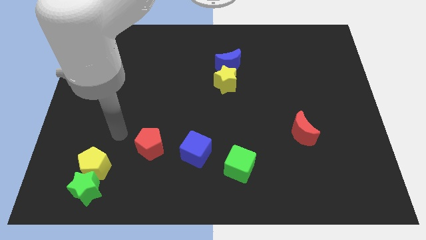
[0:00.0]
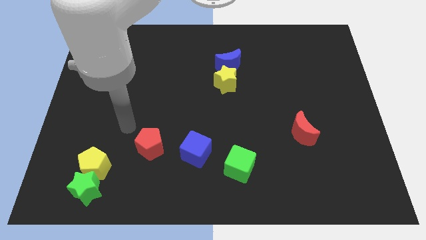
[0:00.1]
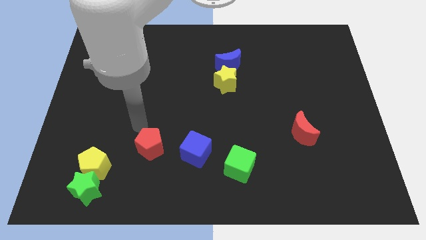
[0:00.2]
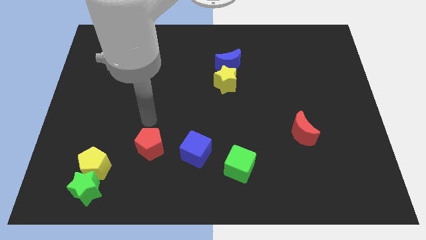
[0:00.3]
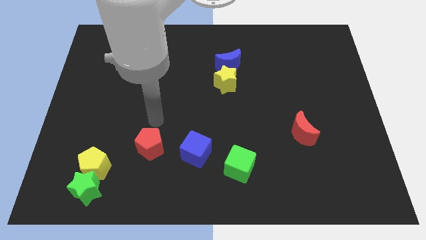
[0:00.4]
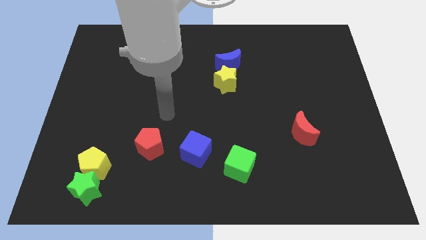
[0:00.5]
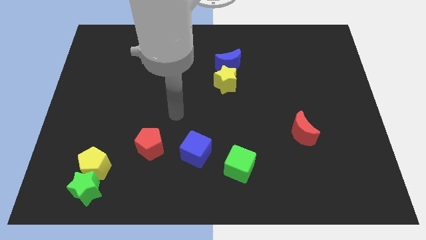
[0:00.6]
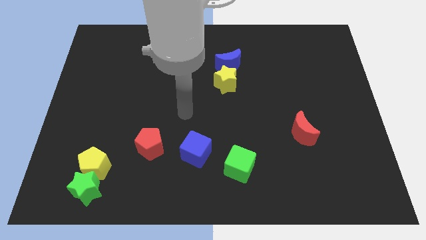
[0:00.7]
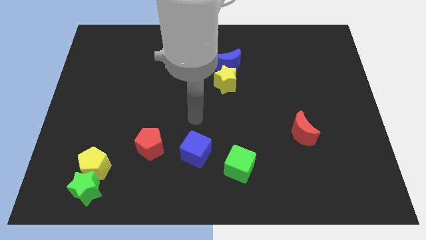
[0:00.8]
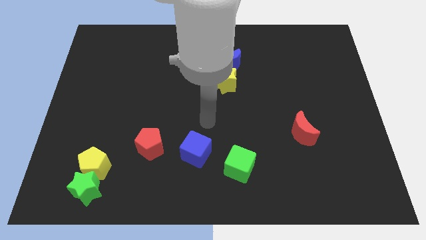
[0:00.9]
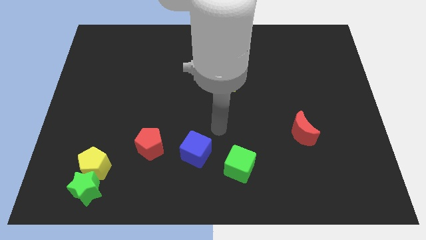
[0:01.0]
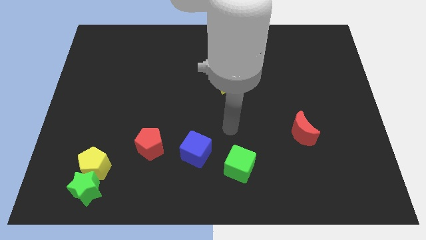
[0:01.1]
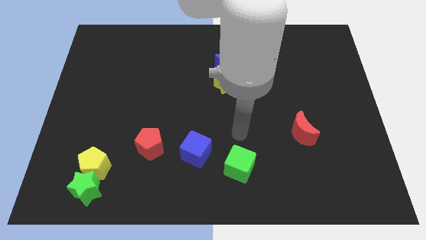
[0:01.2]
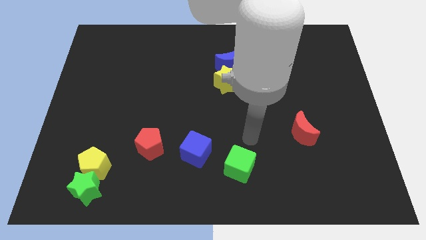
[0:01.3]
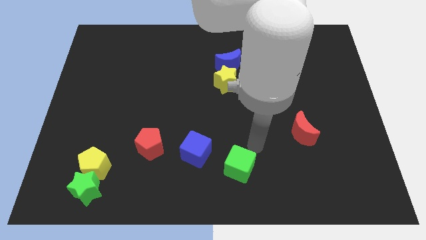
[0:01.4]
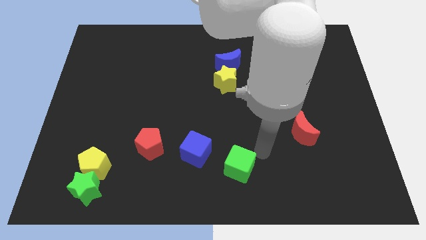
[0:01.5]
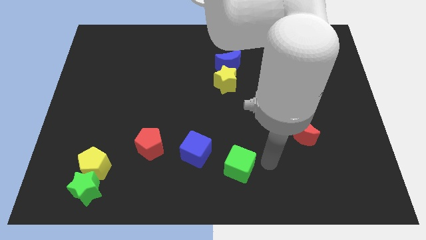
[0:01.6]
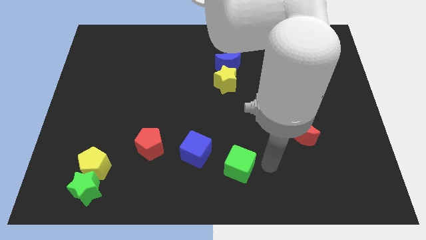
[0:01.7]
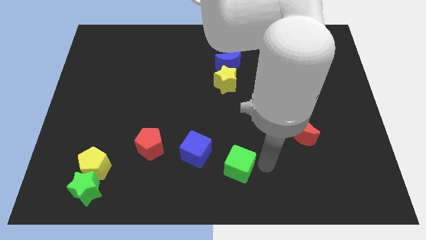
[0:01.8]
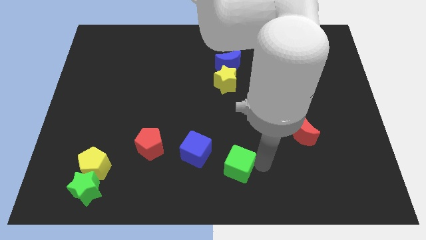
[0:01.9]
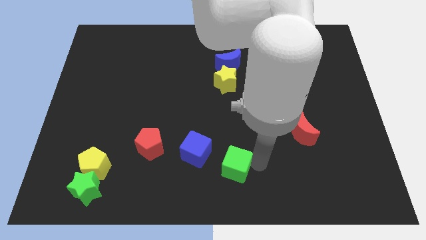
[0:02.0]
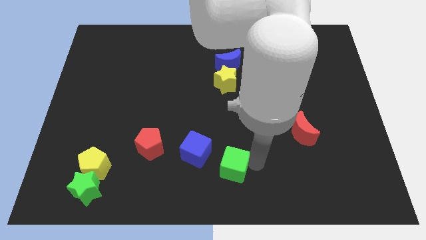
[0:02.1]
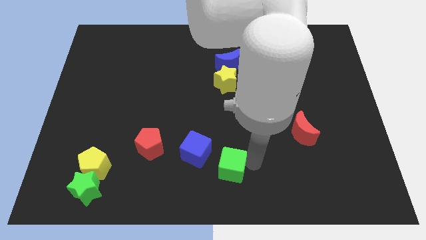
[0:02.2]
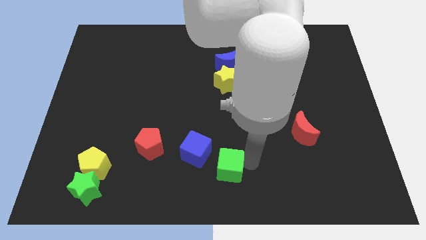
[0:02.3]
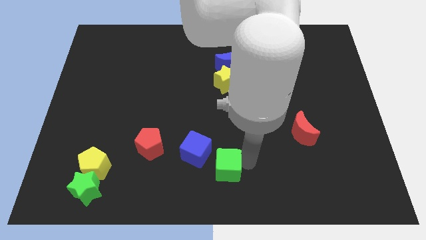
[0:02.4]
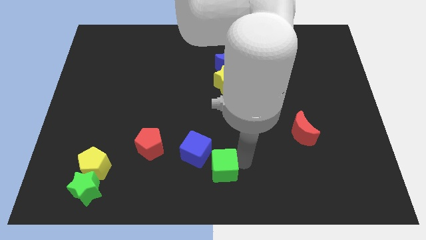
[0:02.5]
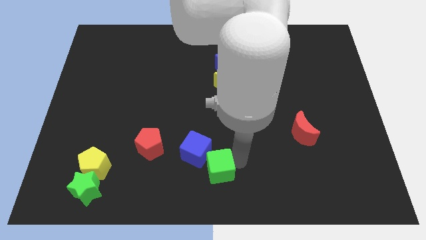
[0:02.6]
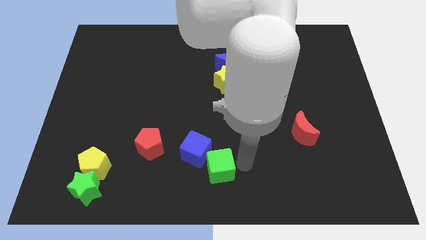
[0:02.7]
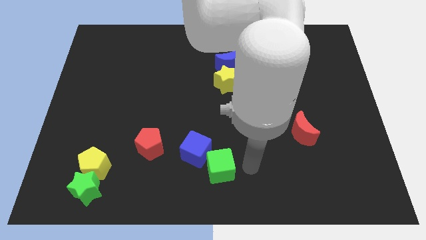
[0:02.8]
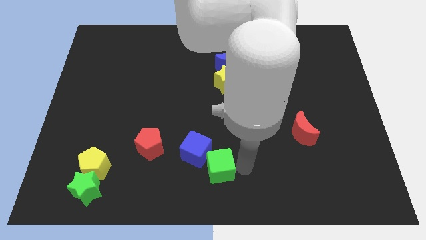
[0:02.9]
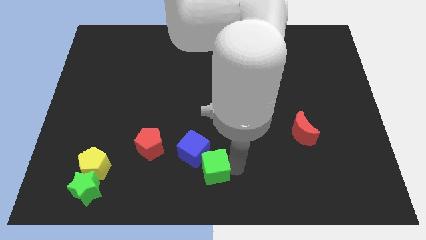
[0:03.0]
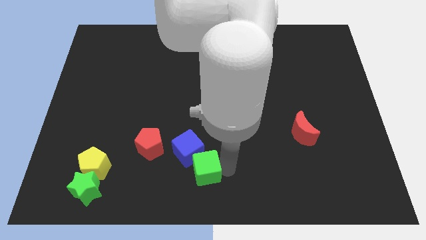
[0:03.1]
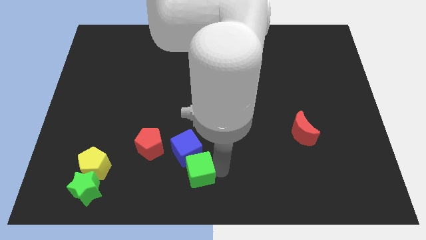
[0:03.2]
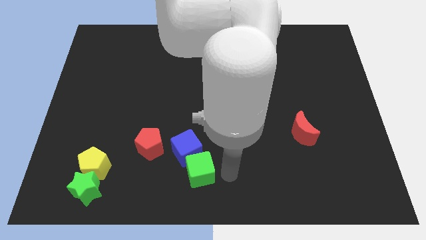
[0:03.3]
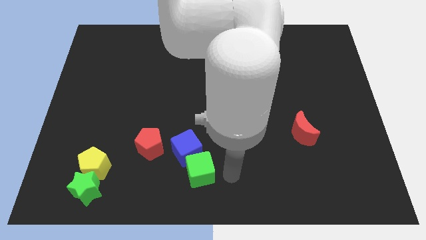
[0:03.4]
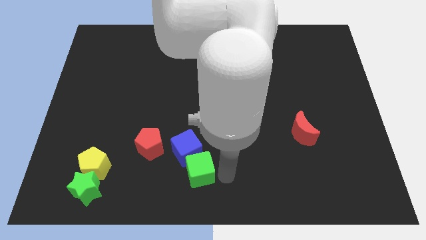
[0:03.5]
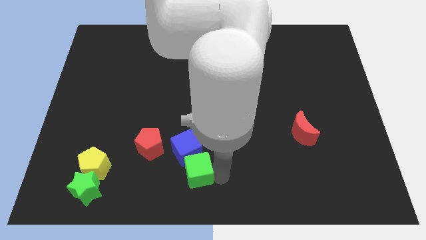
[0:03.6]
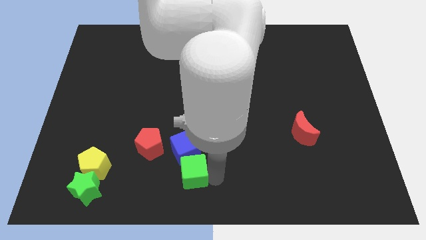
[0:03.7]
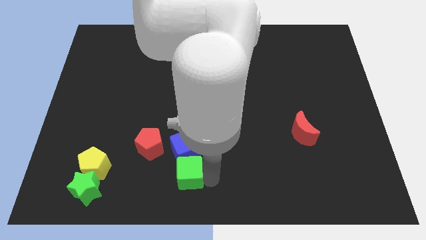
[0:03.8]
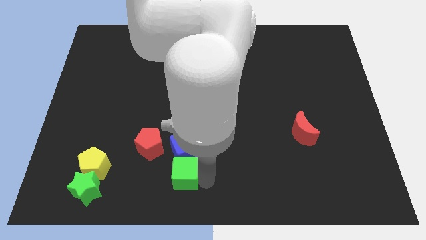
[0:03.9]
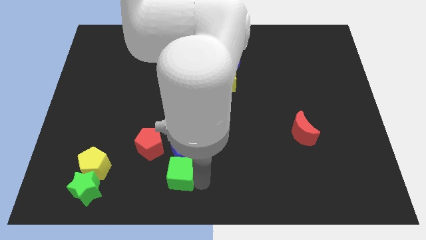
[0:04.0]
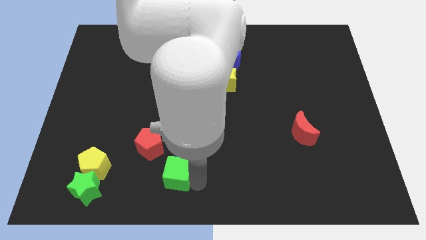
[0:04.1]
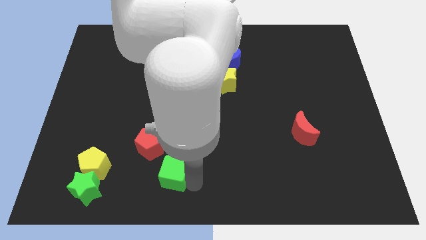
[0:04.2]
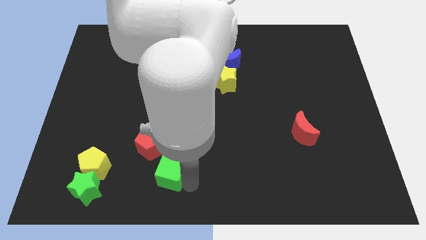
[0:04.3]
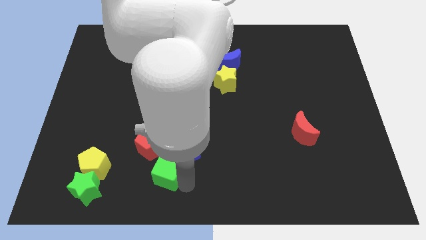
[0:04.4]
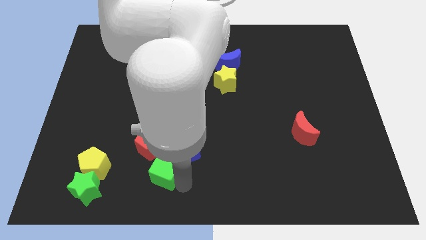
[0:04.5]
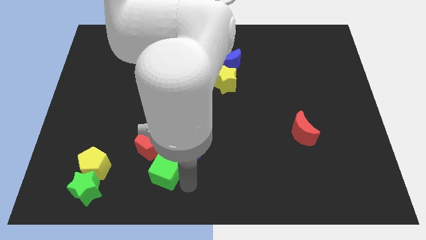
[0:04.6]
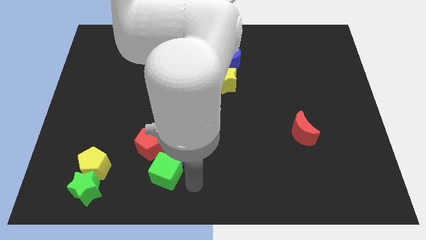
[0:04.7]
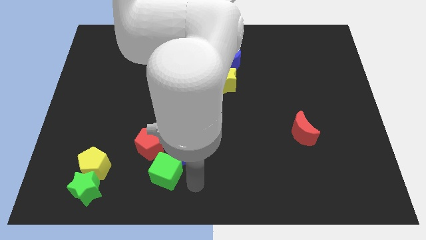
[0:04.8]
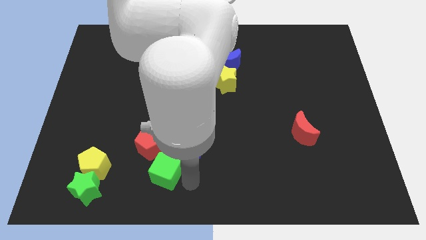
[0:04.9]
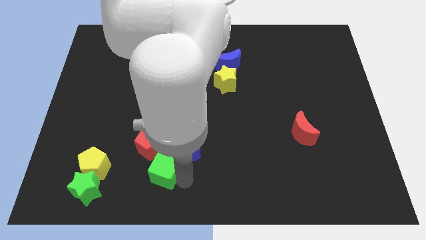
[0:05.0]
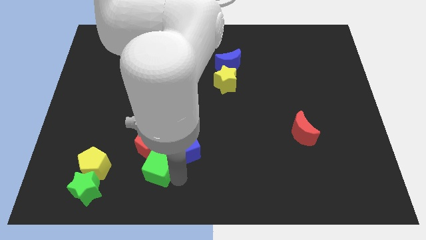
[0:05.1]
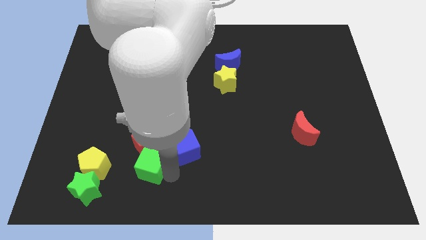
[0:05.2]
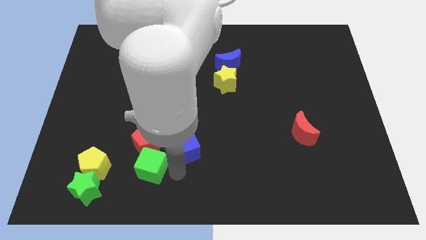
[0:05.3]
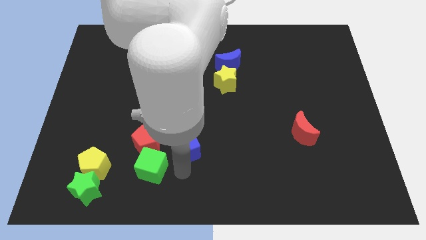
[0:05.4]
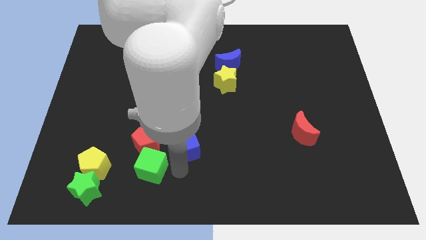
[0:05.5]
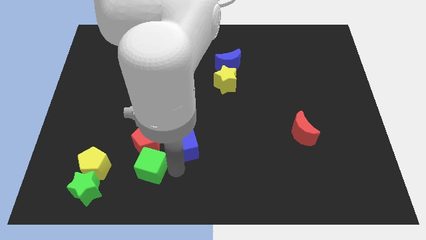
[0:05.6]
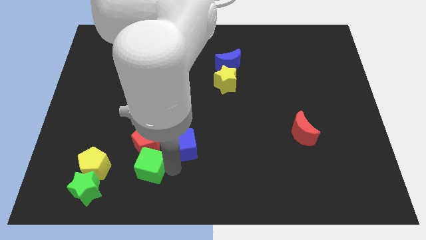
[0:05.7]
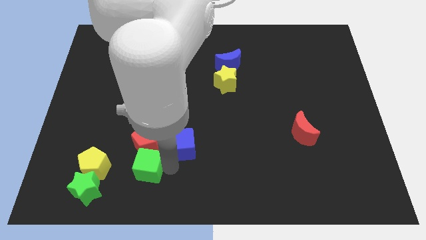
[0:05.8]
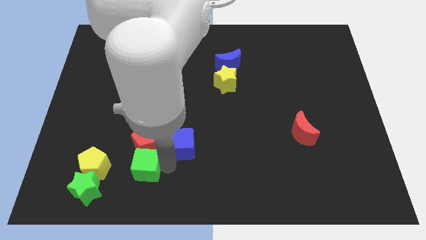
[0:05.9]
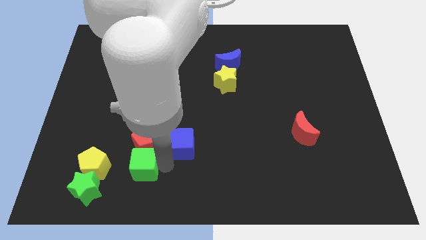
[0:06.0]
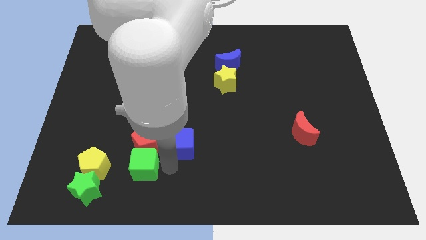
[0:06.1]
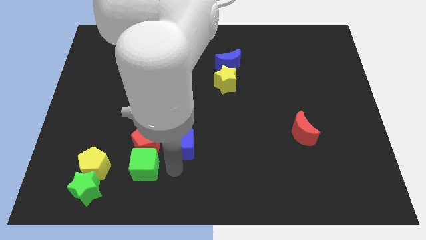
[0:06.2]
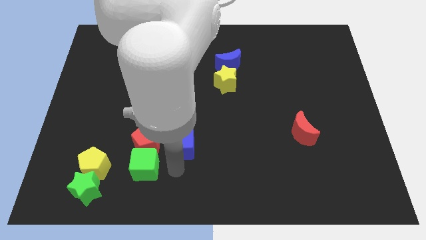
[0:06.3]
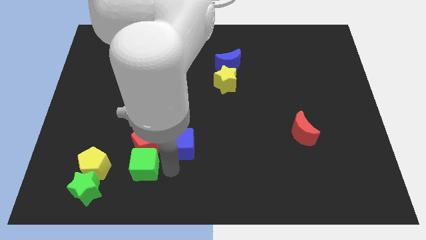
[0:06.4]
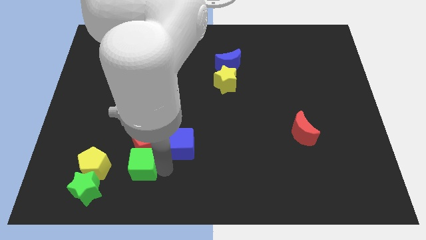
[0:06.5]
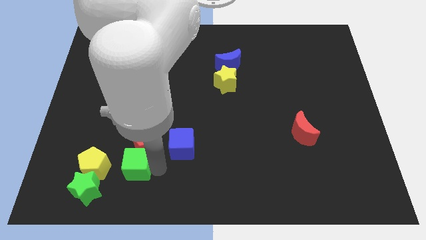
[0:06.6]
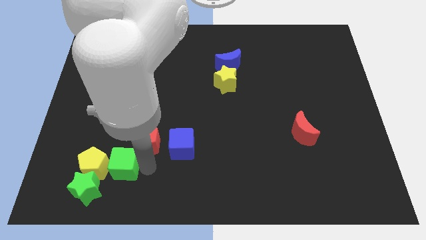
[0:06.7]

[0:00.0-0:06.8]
move the green cube to the yellow pentagon
